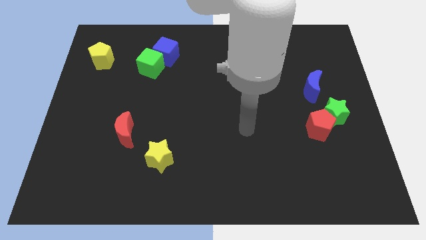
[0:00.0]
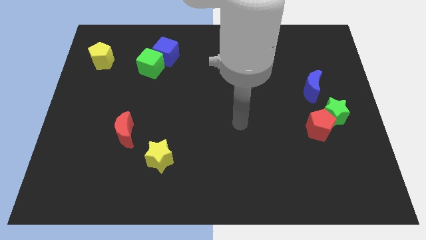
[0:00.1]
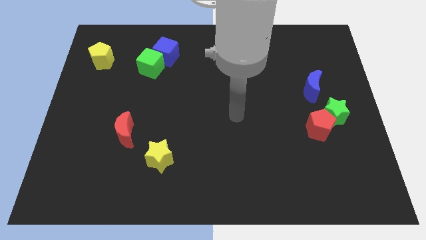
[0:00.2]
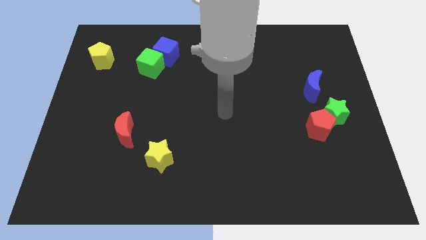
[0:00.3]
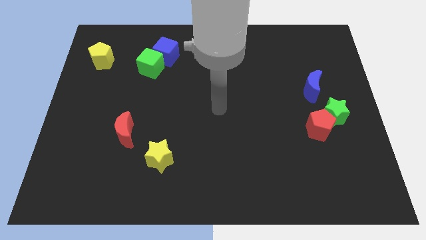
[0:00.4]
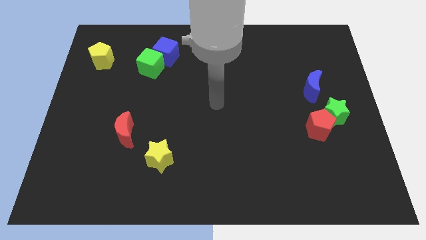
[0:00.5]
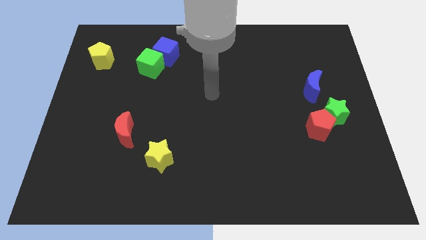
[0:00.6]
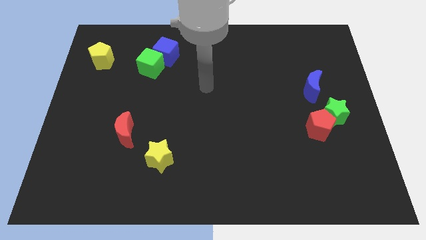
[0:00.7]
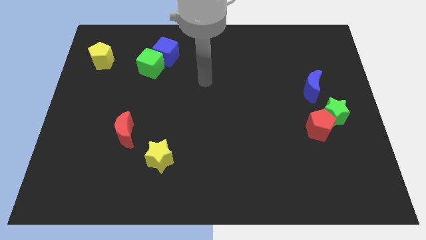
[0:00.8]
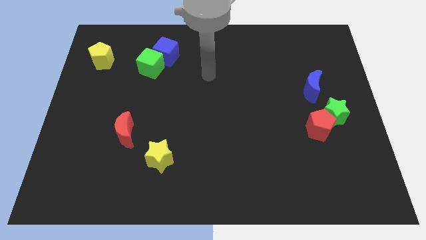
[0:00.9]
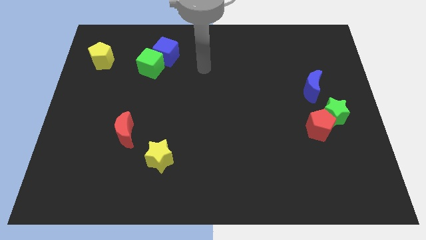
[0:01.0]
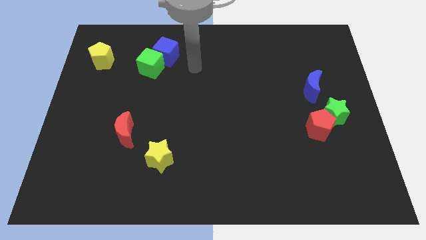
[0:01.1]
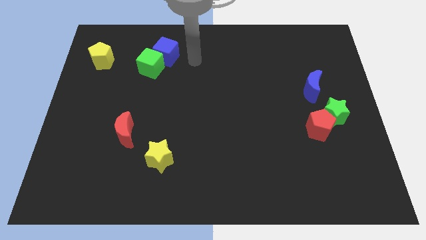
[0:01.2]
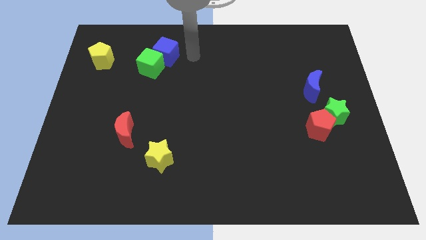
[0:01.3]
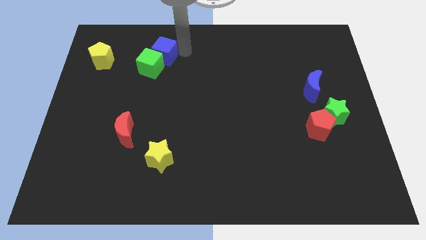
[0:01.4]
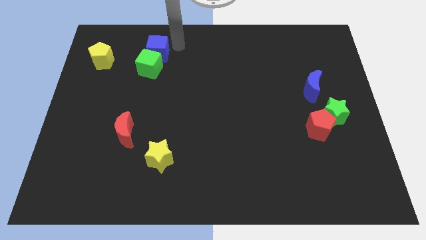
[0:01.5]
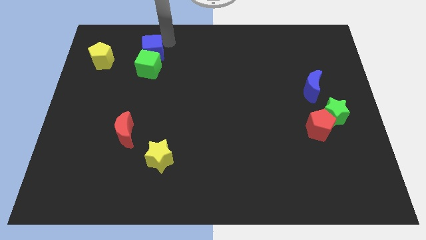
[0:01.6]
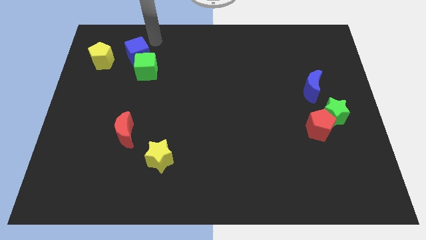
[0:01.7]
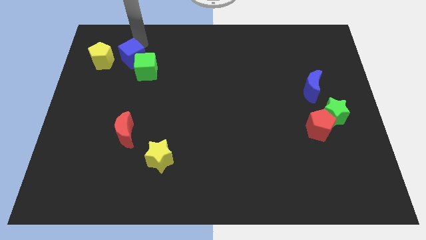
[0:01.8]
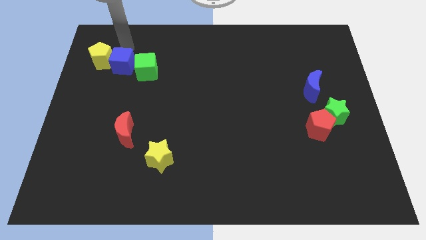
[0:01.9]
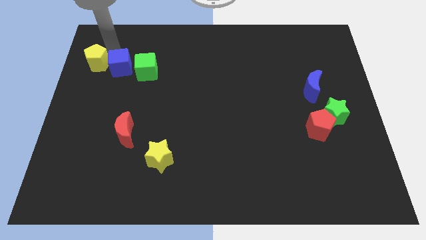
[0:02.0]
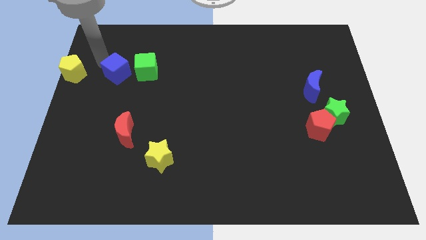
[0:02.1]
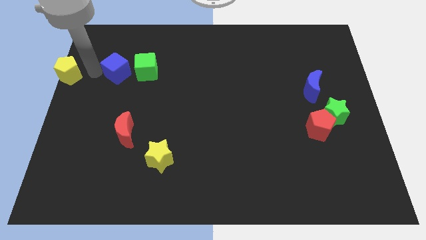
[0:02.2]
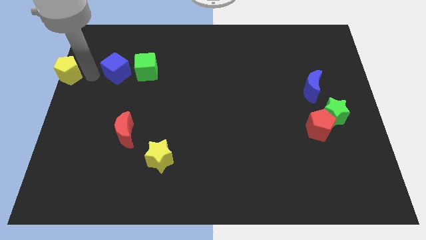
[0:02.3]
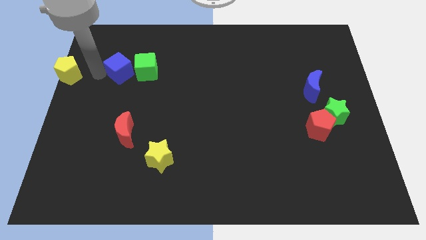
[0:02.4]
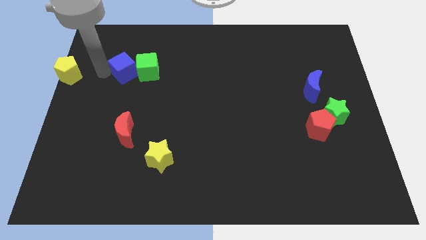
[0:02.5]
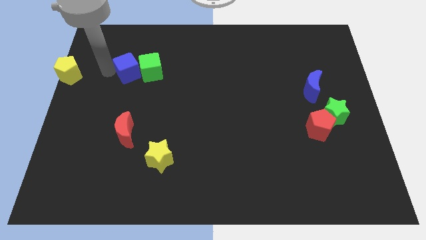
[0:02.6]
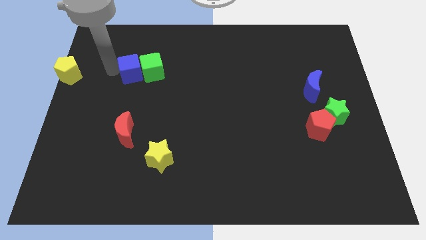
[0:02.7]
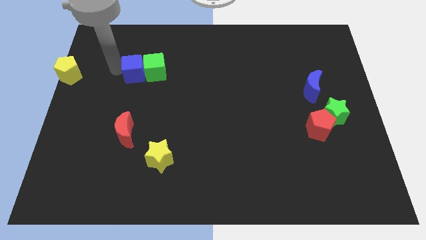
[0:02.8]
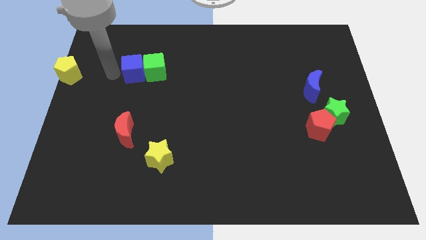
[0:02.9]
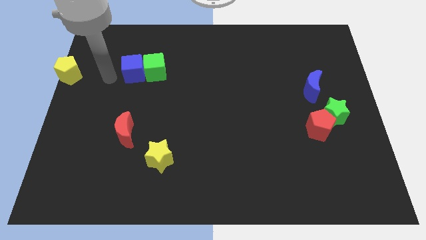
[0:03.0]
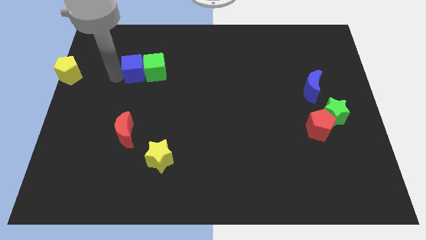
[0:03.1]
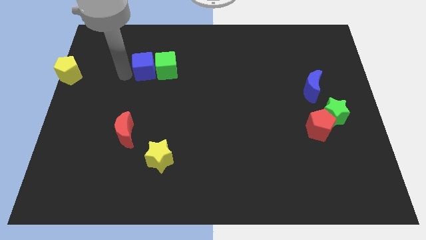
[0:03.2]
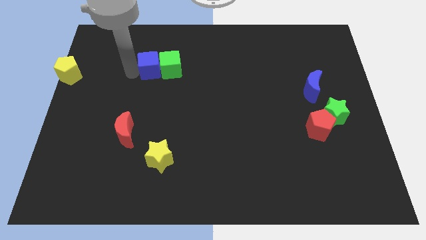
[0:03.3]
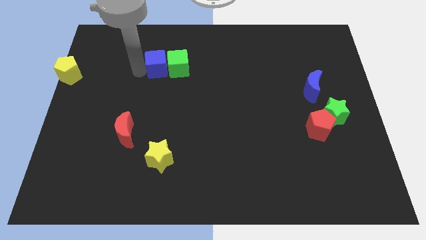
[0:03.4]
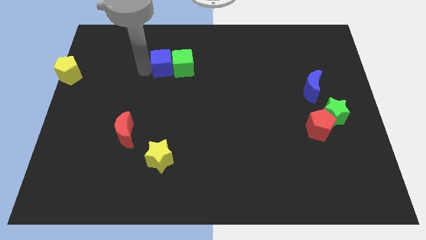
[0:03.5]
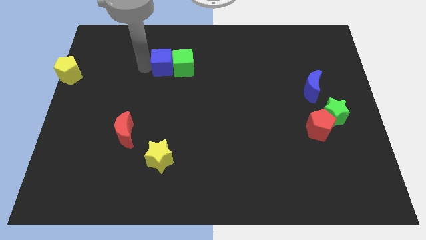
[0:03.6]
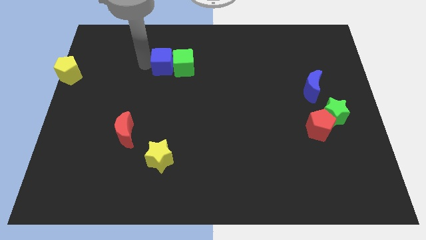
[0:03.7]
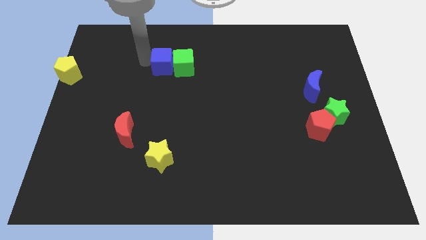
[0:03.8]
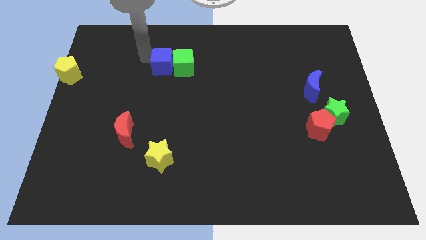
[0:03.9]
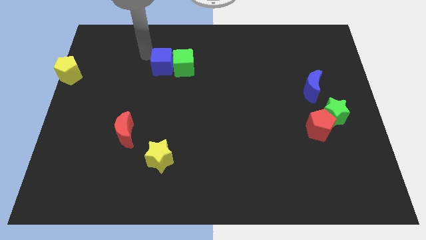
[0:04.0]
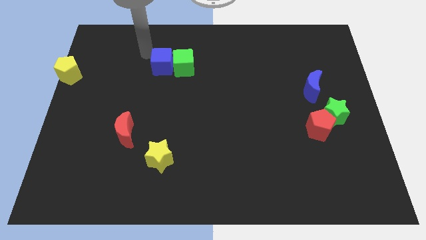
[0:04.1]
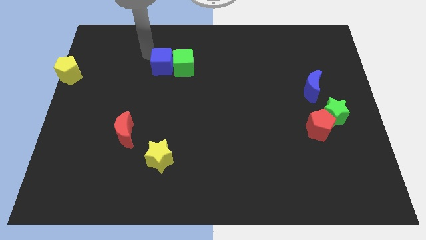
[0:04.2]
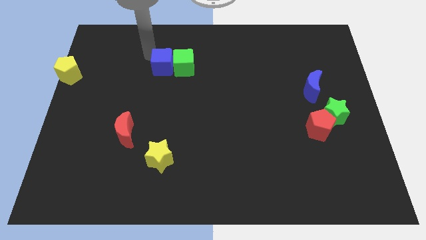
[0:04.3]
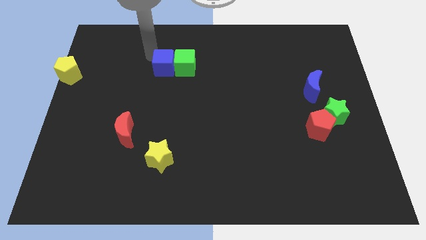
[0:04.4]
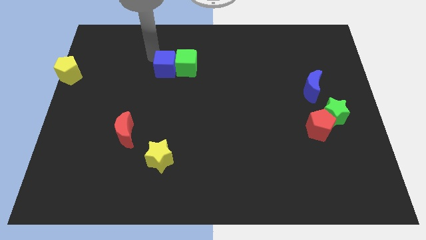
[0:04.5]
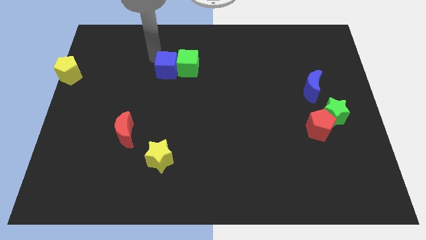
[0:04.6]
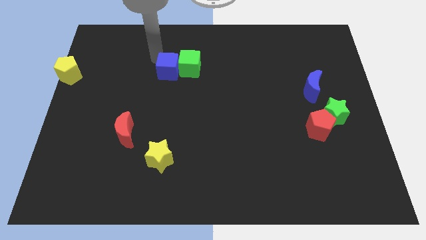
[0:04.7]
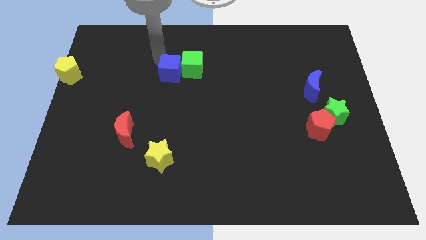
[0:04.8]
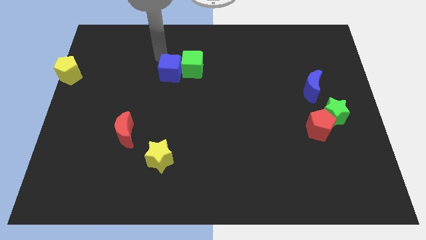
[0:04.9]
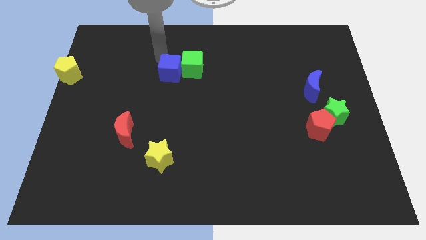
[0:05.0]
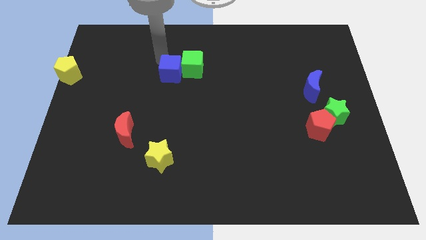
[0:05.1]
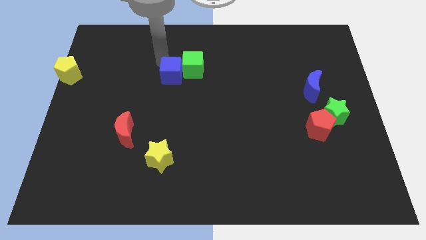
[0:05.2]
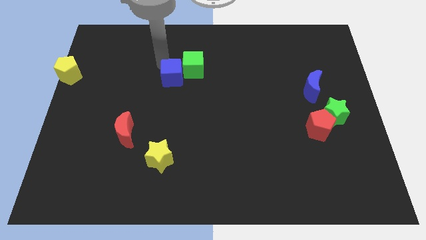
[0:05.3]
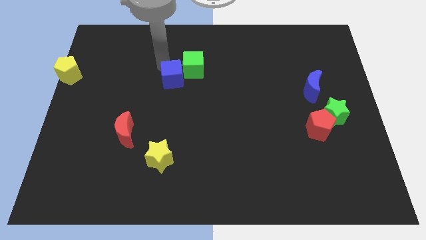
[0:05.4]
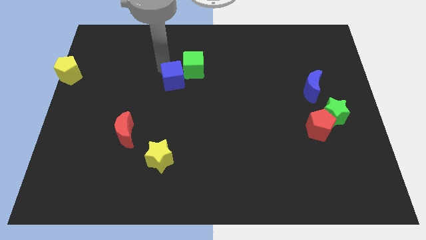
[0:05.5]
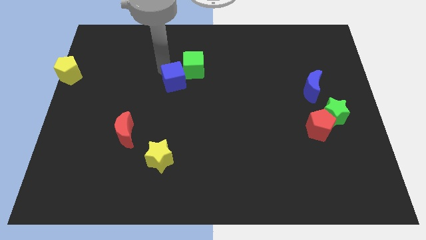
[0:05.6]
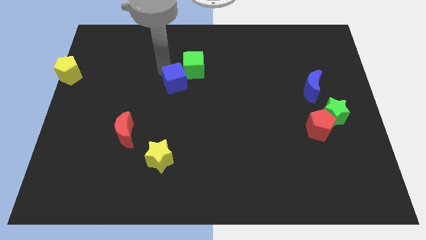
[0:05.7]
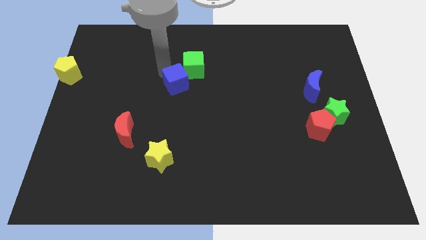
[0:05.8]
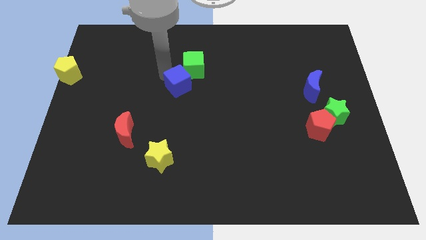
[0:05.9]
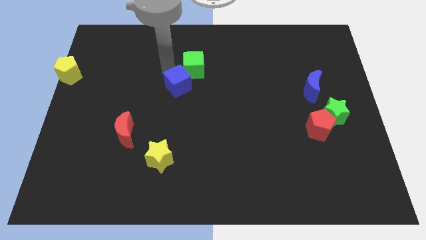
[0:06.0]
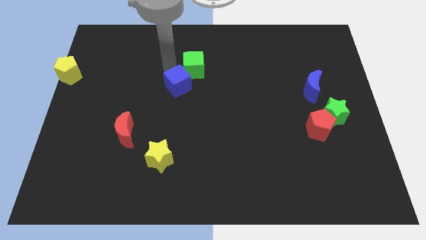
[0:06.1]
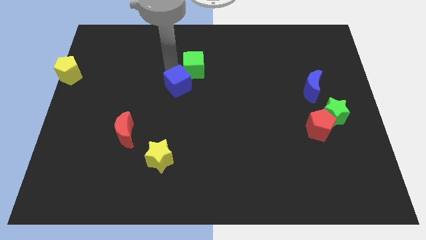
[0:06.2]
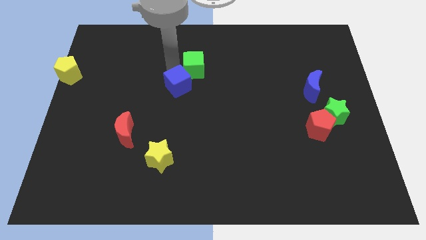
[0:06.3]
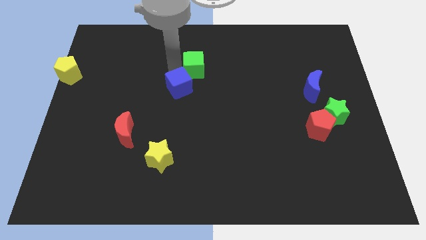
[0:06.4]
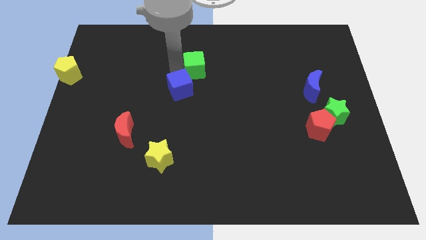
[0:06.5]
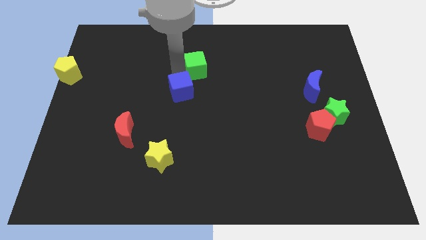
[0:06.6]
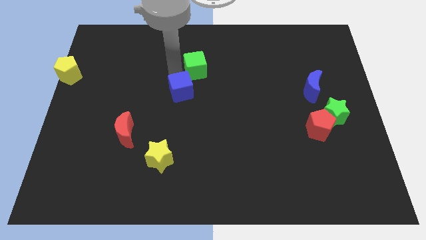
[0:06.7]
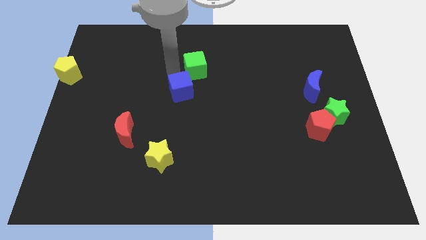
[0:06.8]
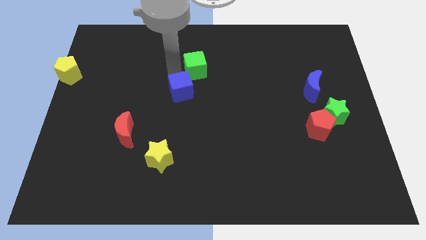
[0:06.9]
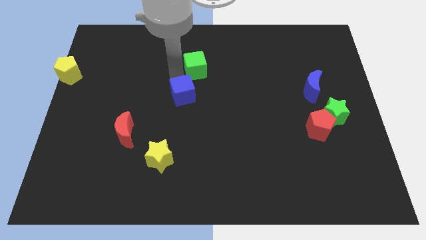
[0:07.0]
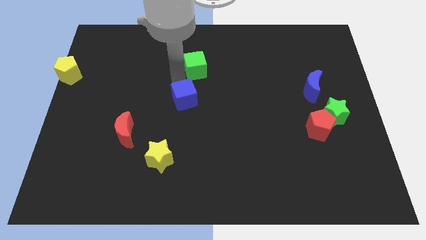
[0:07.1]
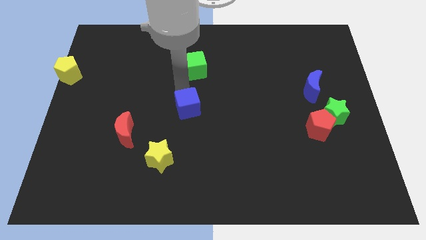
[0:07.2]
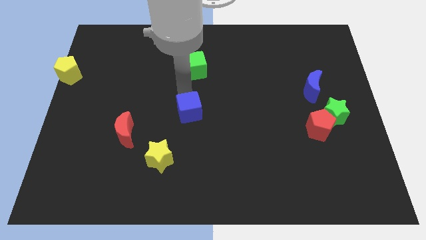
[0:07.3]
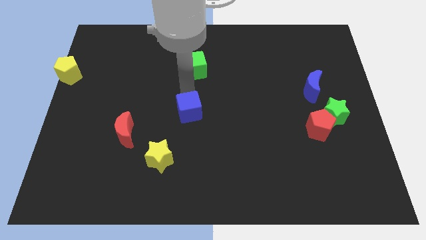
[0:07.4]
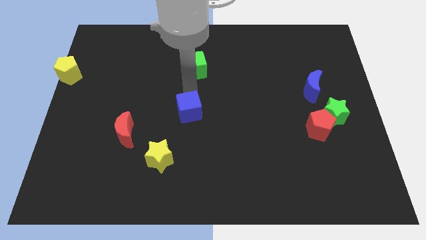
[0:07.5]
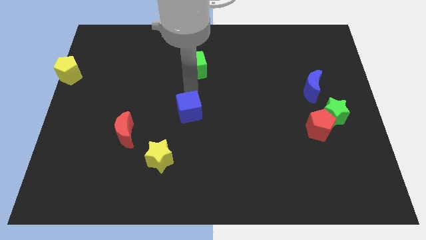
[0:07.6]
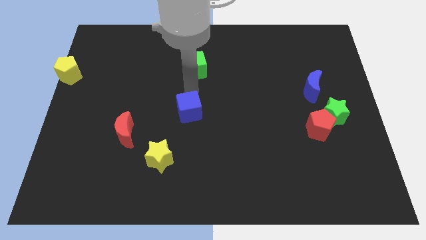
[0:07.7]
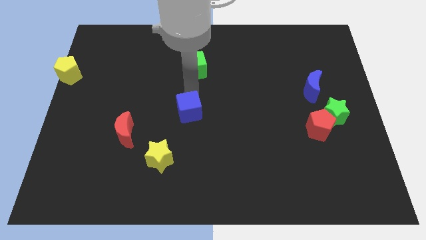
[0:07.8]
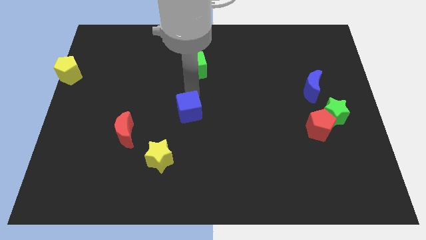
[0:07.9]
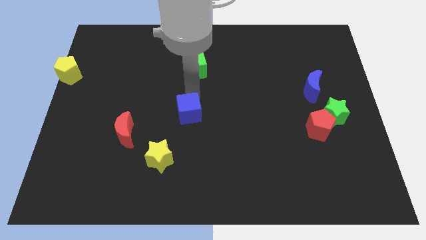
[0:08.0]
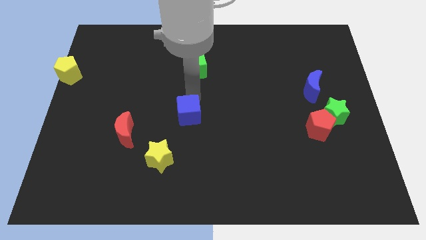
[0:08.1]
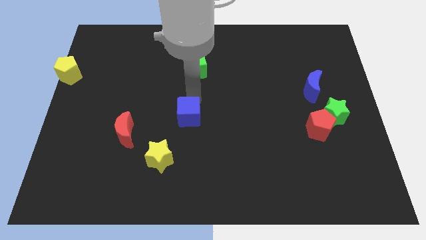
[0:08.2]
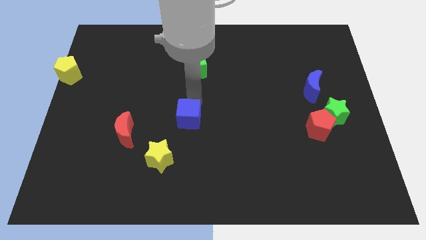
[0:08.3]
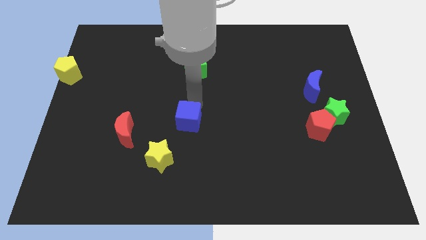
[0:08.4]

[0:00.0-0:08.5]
slide the blue cube diagonally up and to the right of the yellow star

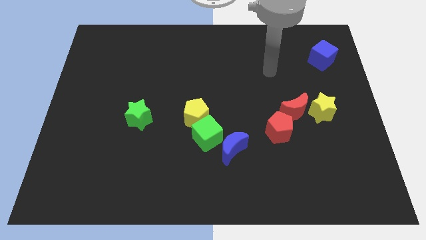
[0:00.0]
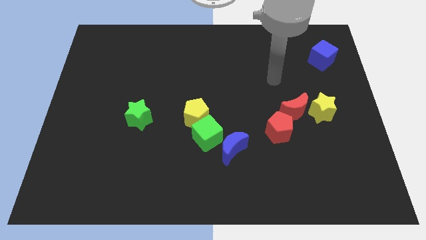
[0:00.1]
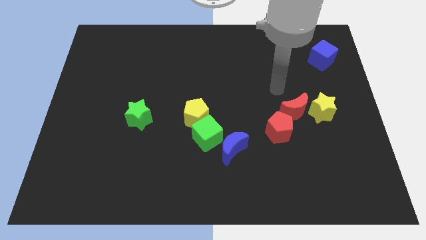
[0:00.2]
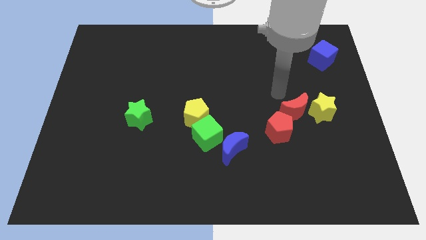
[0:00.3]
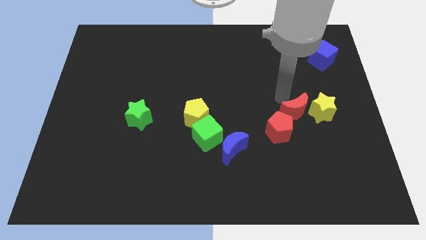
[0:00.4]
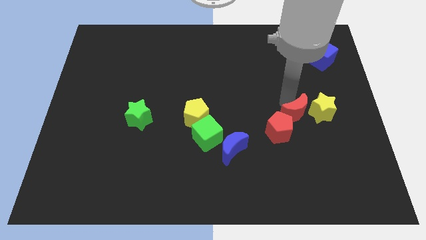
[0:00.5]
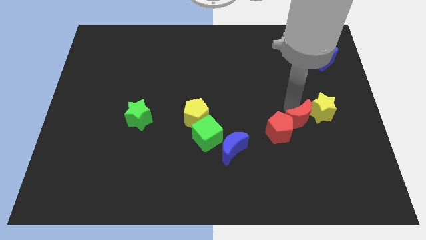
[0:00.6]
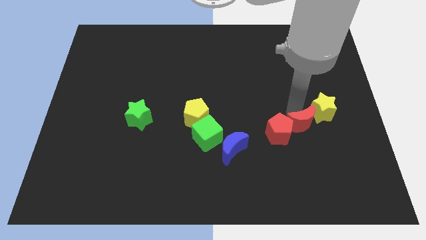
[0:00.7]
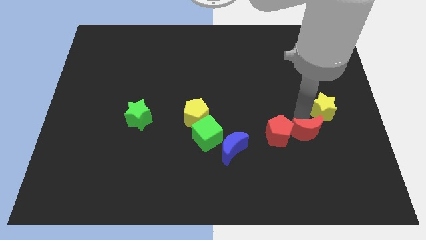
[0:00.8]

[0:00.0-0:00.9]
put the red moon to the bottom right of the red pentagon
